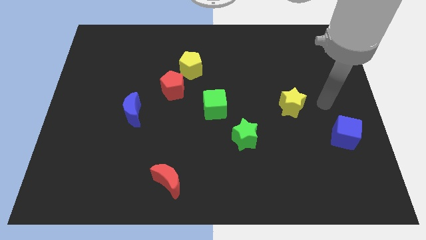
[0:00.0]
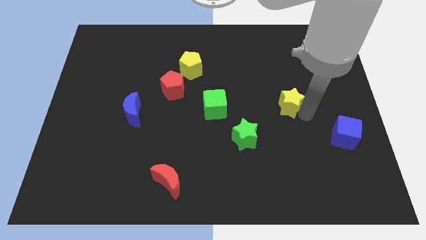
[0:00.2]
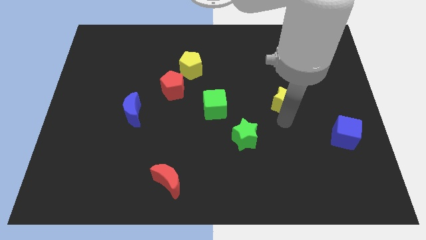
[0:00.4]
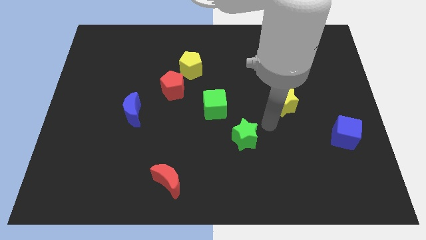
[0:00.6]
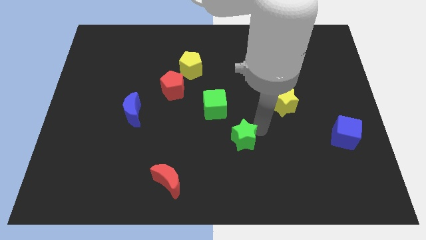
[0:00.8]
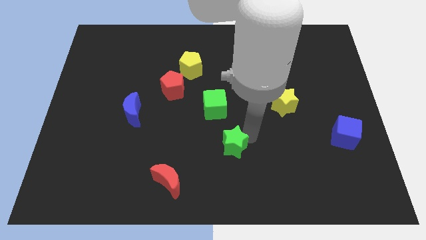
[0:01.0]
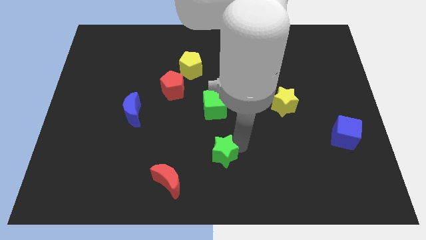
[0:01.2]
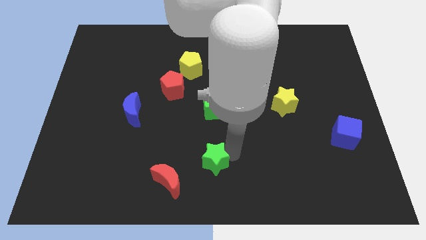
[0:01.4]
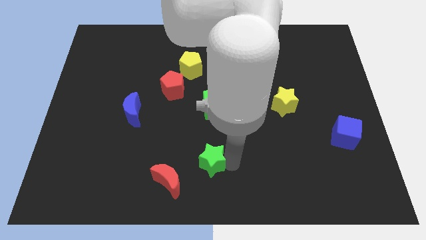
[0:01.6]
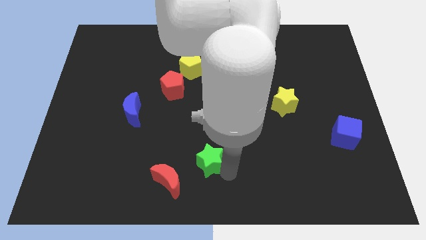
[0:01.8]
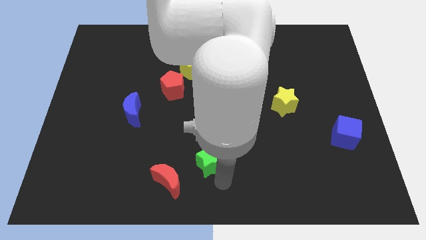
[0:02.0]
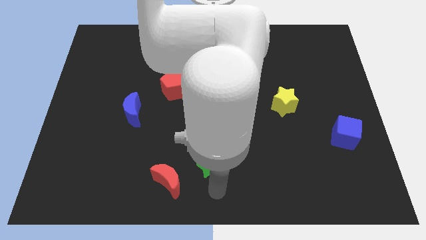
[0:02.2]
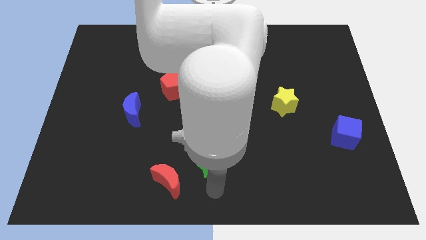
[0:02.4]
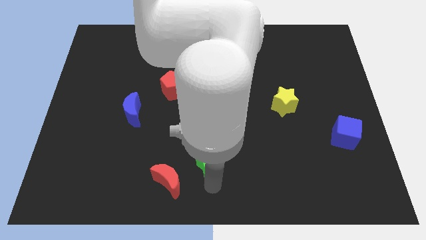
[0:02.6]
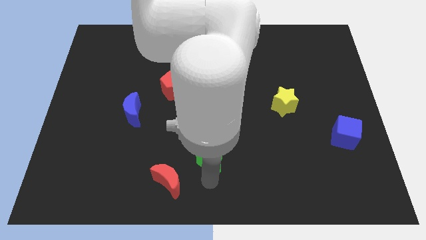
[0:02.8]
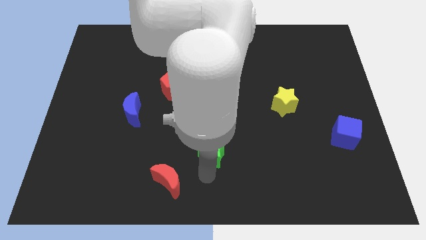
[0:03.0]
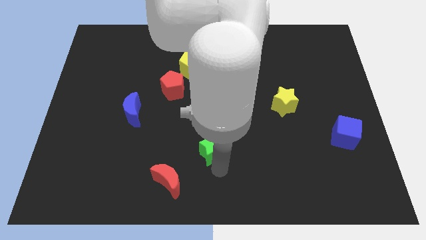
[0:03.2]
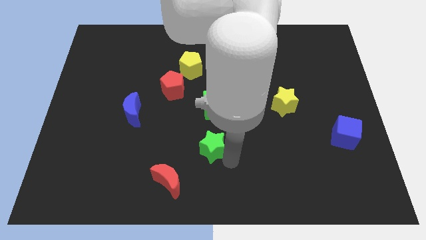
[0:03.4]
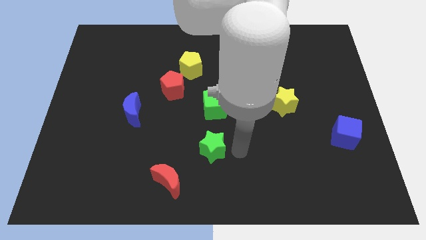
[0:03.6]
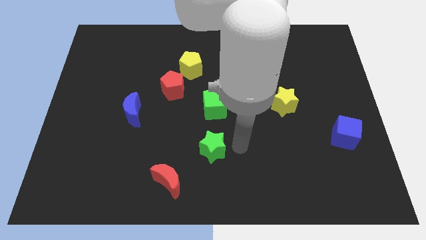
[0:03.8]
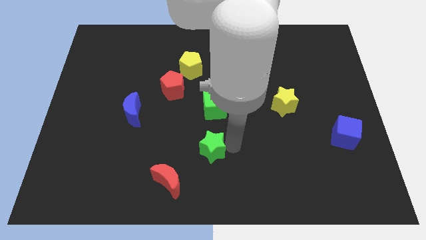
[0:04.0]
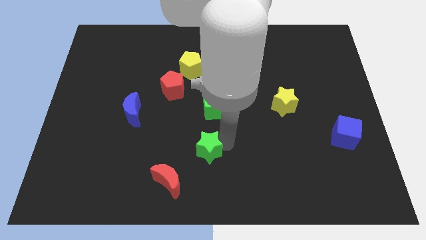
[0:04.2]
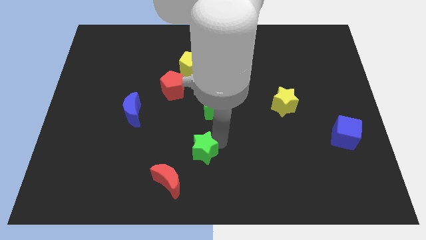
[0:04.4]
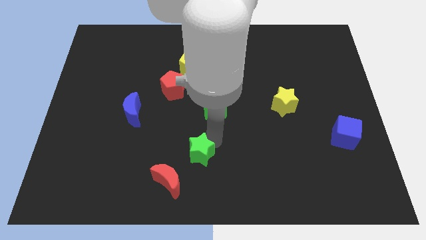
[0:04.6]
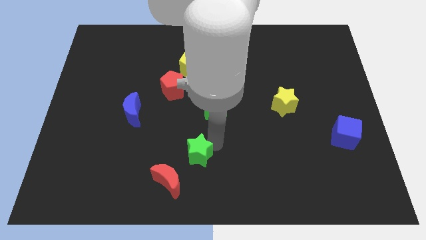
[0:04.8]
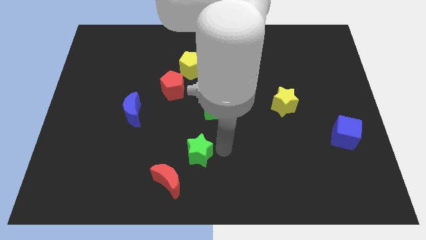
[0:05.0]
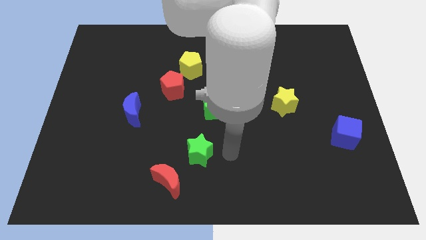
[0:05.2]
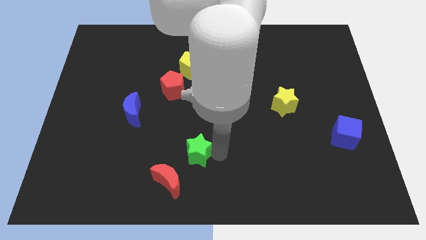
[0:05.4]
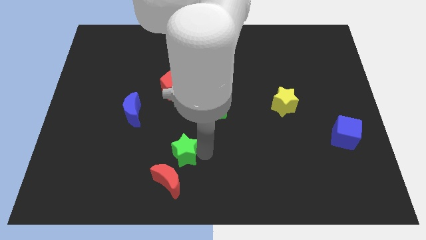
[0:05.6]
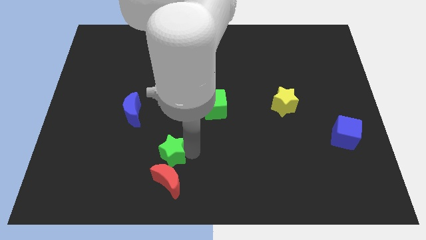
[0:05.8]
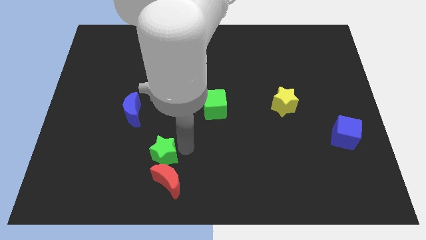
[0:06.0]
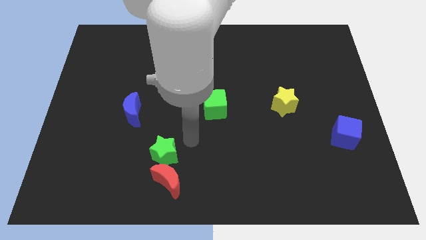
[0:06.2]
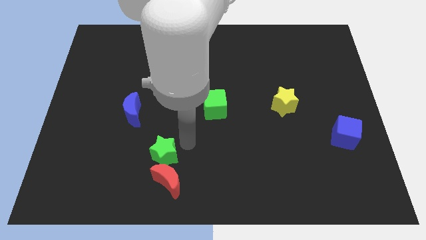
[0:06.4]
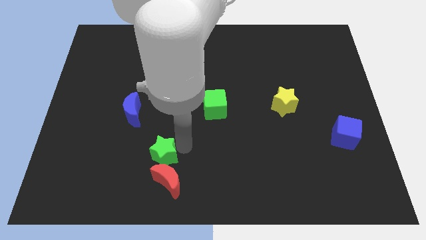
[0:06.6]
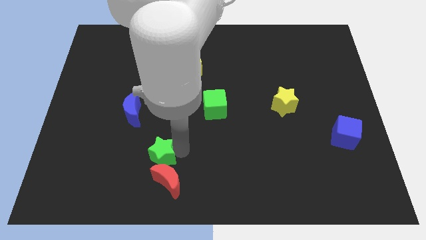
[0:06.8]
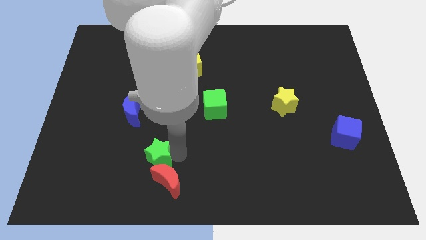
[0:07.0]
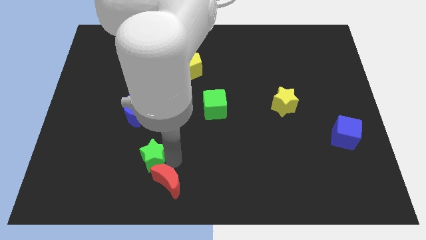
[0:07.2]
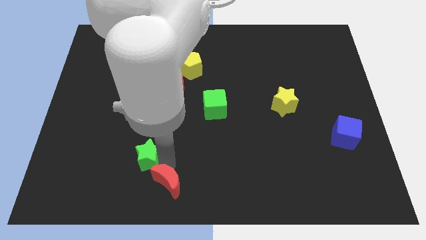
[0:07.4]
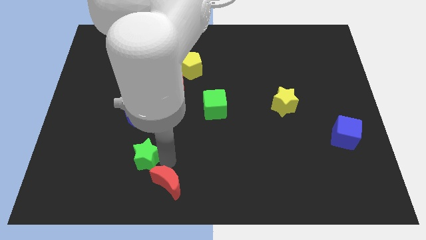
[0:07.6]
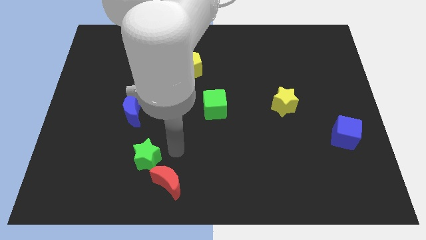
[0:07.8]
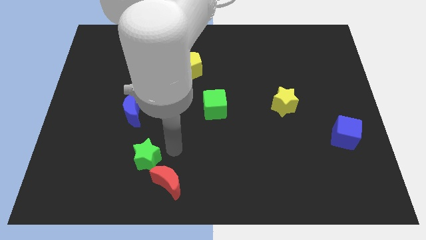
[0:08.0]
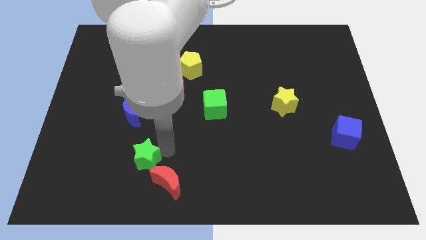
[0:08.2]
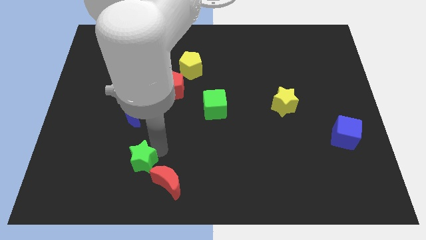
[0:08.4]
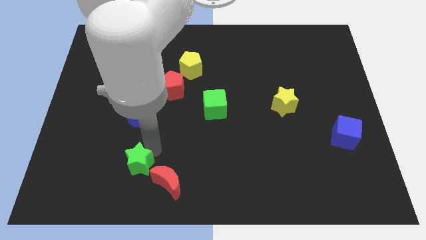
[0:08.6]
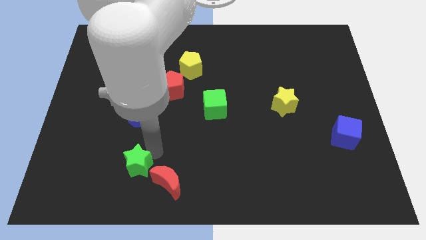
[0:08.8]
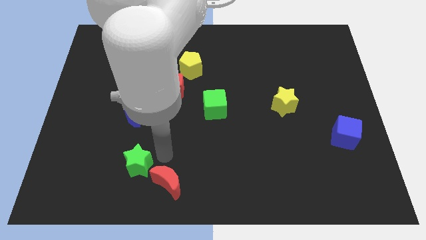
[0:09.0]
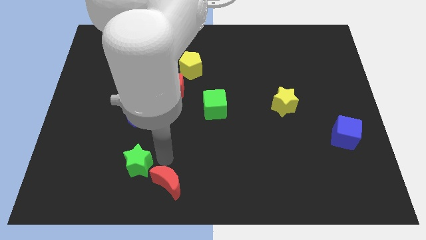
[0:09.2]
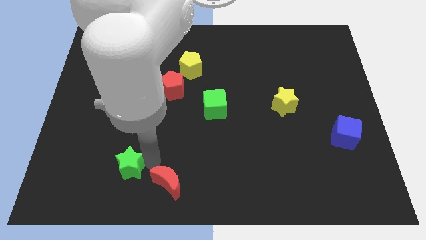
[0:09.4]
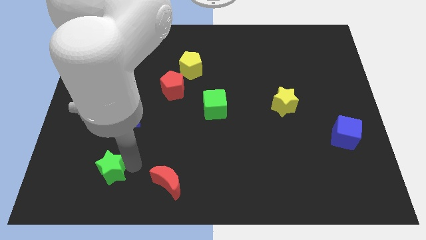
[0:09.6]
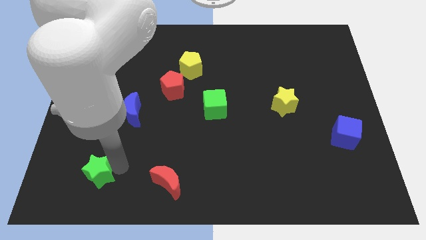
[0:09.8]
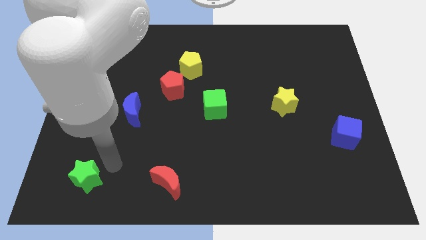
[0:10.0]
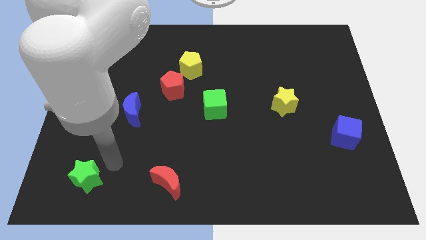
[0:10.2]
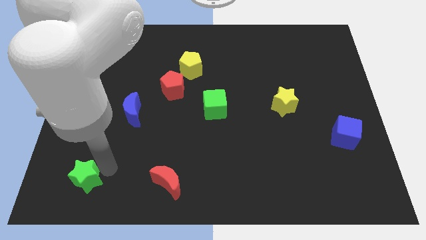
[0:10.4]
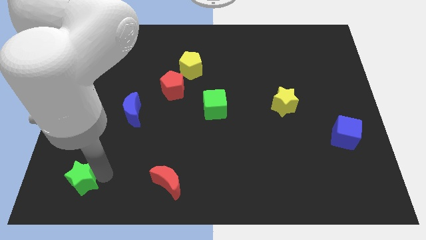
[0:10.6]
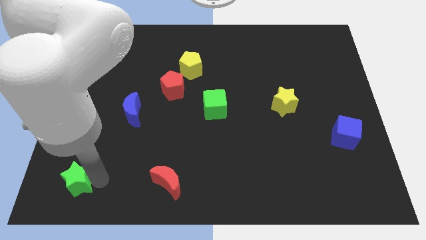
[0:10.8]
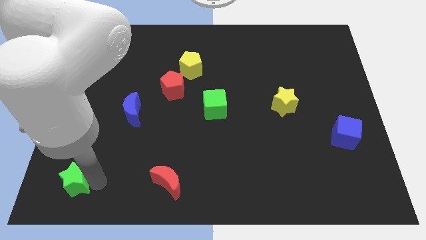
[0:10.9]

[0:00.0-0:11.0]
slide the green star to the lower left corner
